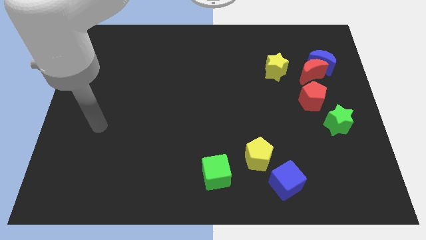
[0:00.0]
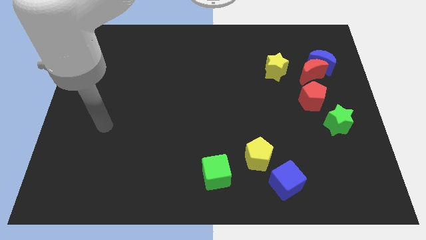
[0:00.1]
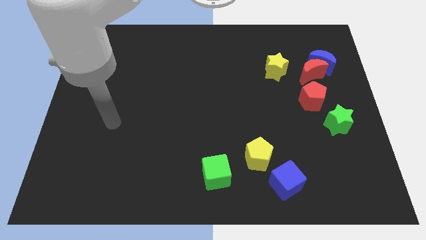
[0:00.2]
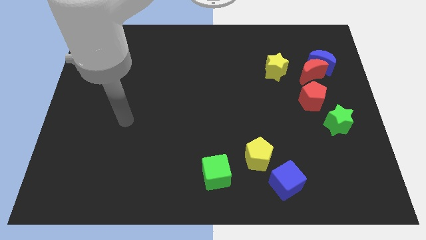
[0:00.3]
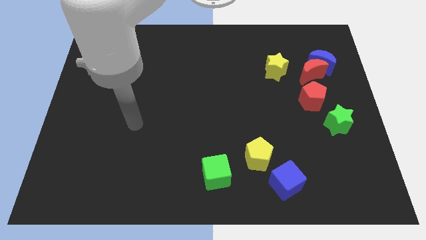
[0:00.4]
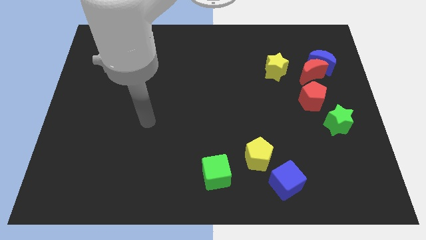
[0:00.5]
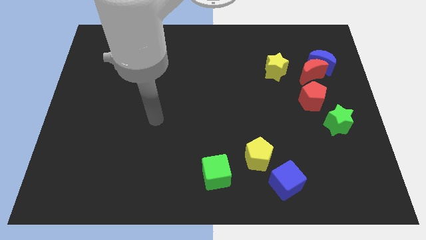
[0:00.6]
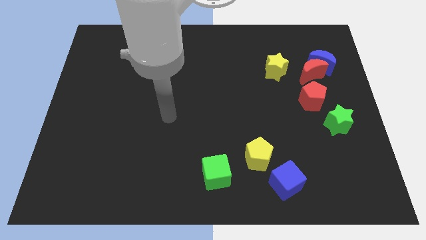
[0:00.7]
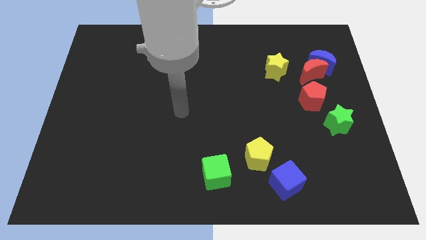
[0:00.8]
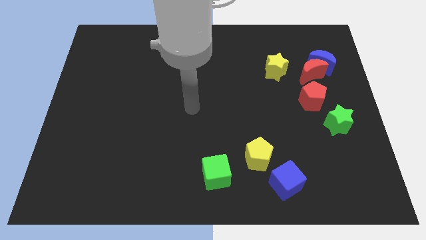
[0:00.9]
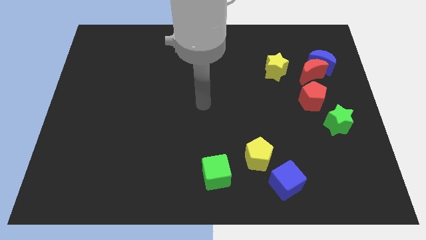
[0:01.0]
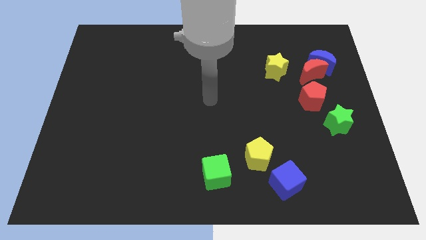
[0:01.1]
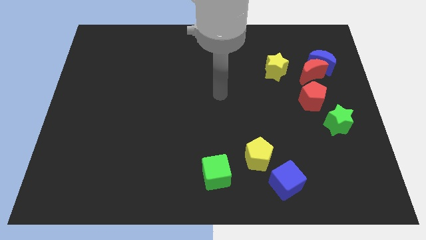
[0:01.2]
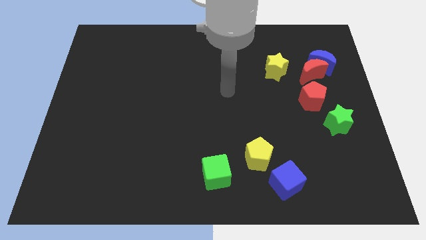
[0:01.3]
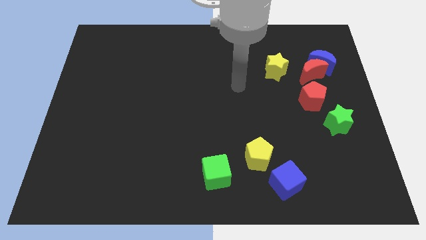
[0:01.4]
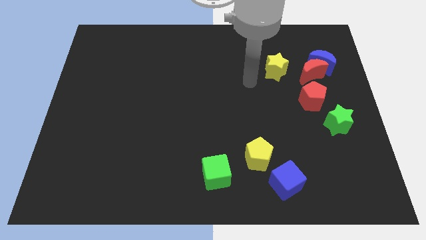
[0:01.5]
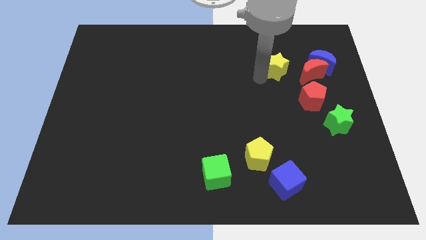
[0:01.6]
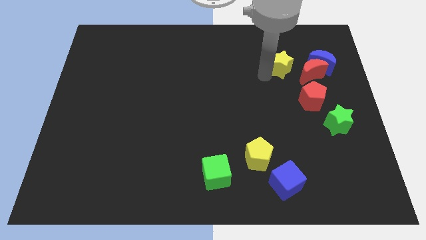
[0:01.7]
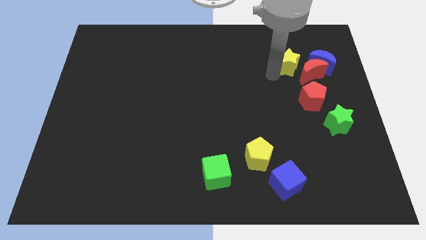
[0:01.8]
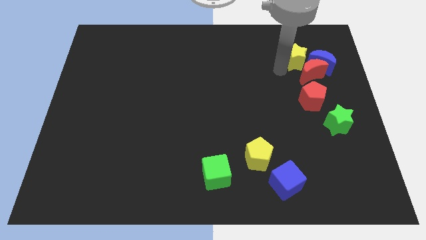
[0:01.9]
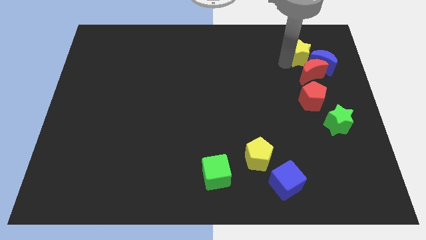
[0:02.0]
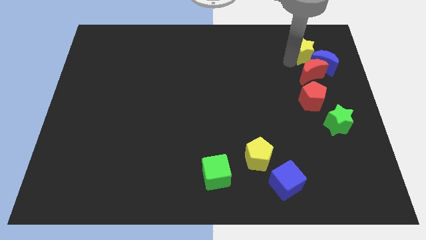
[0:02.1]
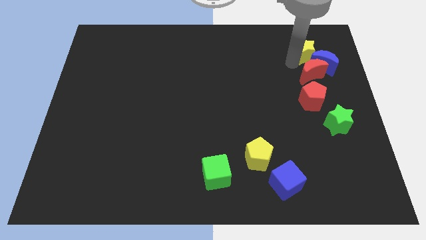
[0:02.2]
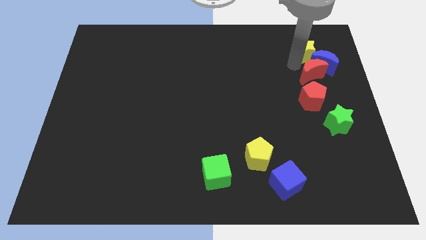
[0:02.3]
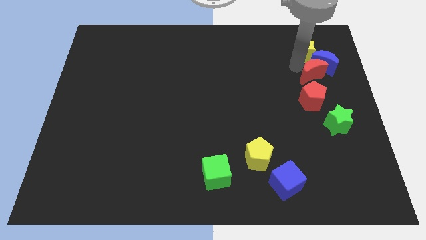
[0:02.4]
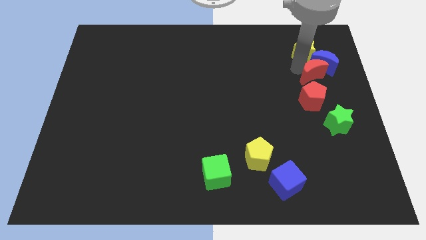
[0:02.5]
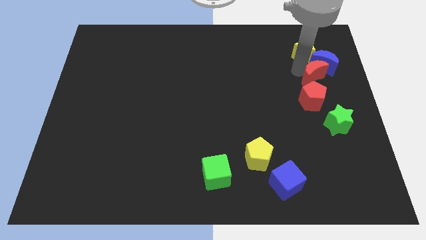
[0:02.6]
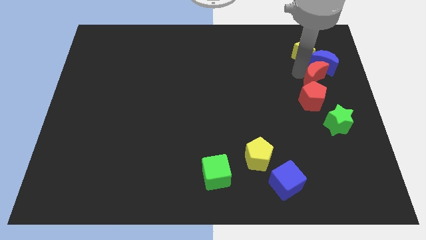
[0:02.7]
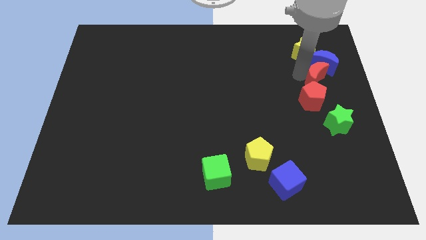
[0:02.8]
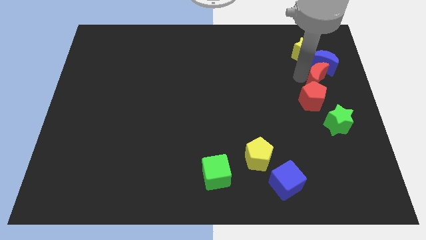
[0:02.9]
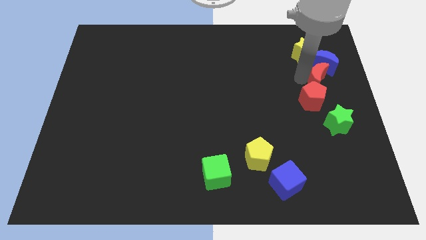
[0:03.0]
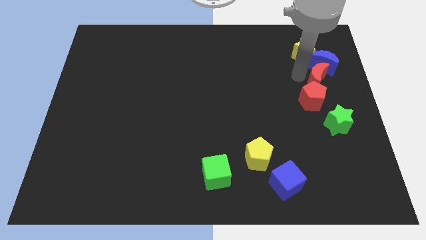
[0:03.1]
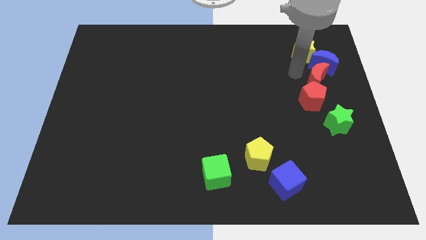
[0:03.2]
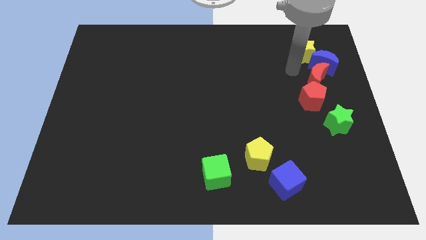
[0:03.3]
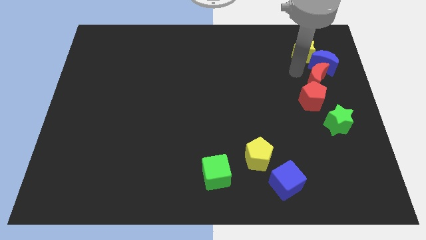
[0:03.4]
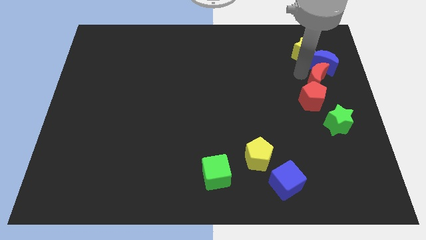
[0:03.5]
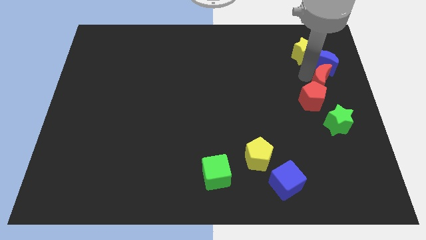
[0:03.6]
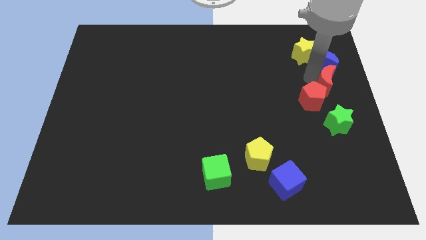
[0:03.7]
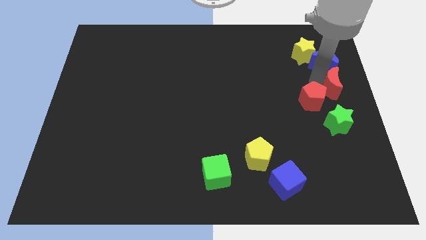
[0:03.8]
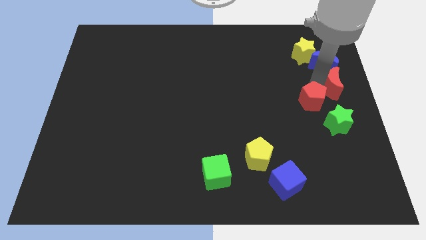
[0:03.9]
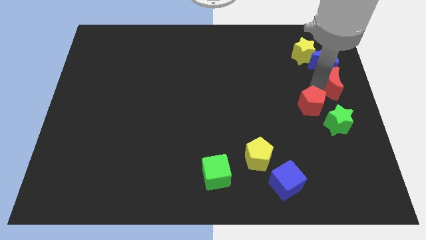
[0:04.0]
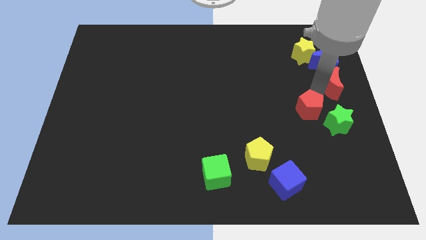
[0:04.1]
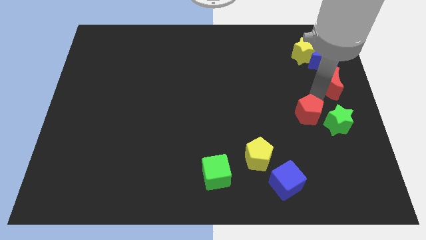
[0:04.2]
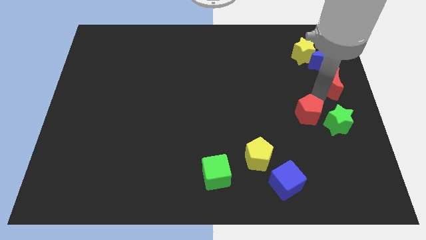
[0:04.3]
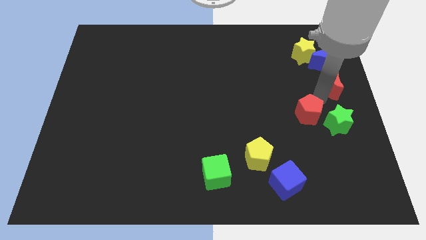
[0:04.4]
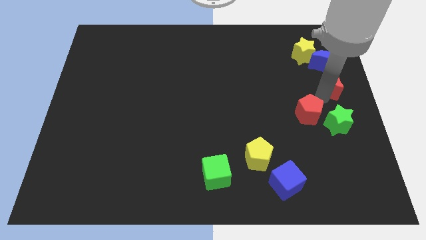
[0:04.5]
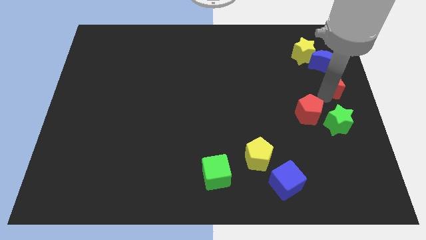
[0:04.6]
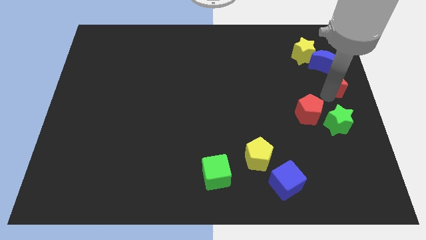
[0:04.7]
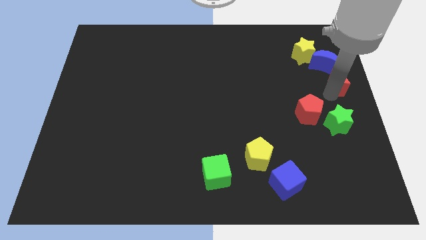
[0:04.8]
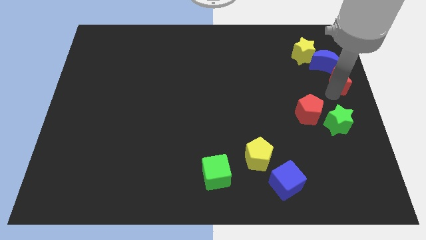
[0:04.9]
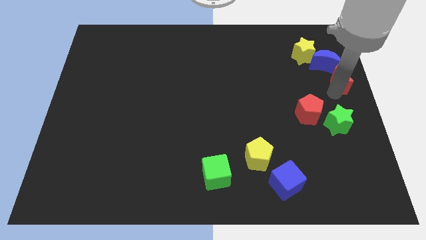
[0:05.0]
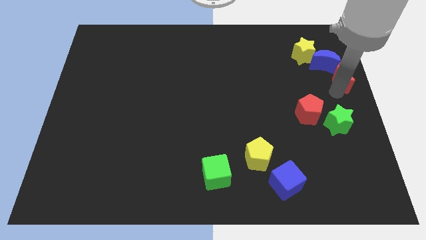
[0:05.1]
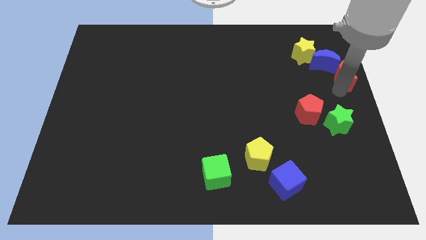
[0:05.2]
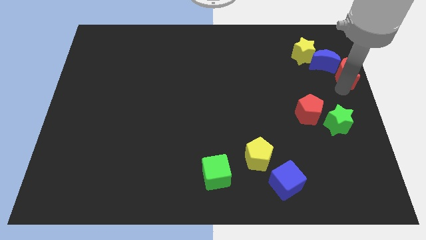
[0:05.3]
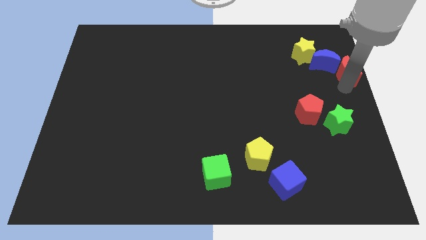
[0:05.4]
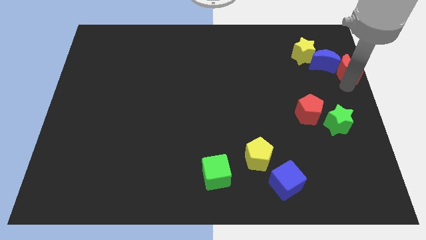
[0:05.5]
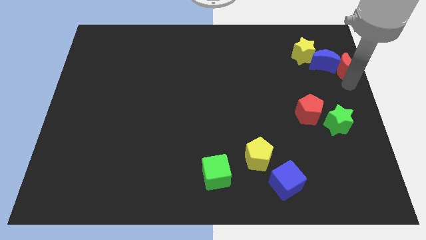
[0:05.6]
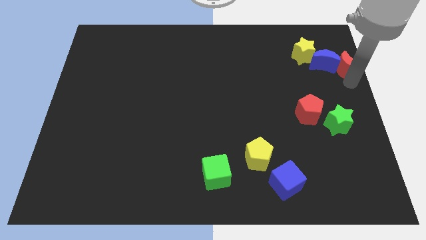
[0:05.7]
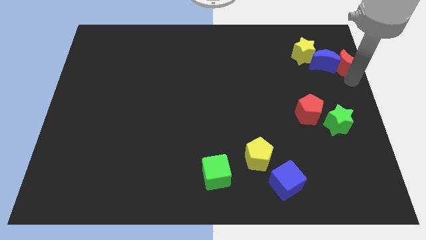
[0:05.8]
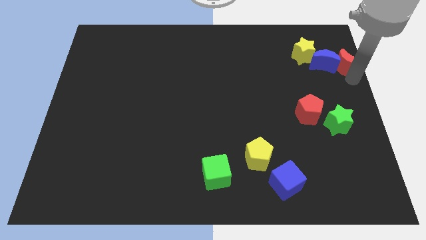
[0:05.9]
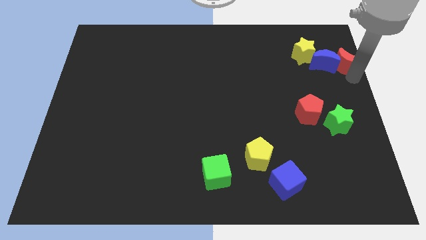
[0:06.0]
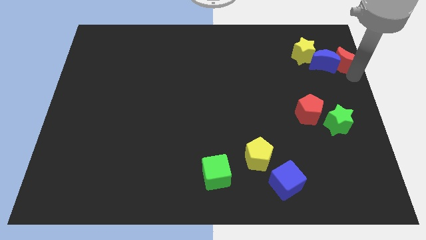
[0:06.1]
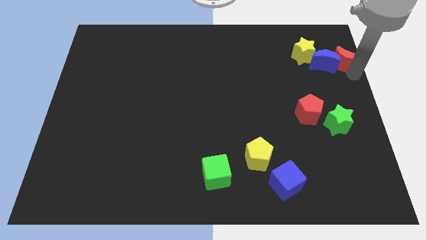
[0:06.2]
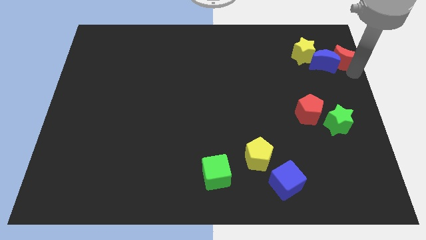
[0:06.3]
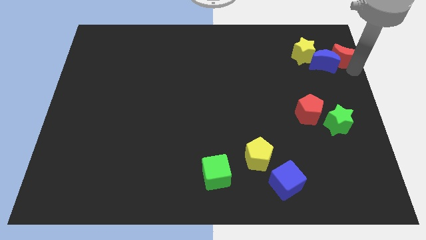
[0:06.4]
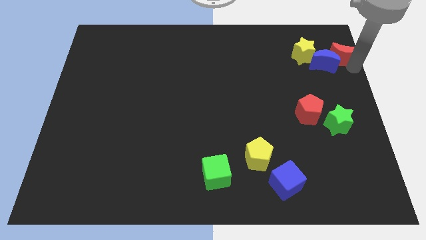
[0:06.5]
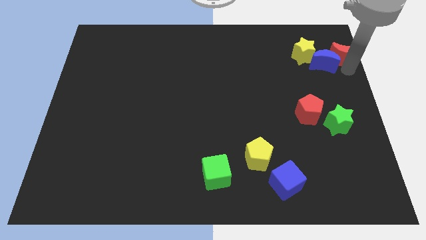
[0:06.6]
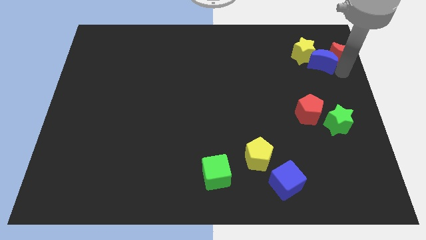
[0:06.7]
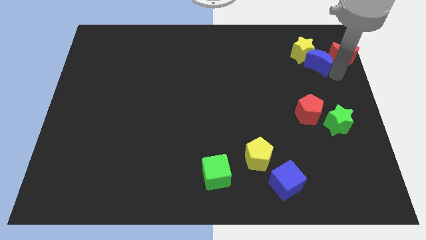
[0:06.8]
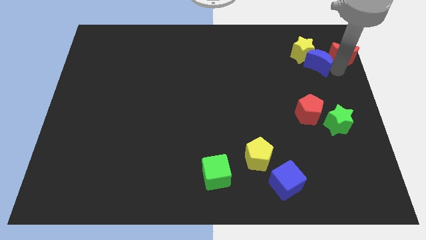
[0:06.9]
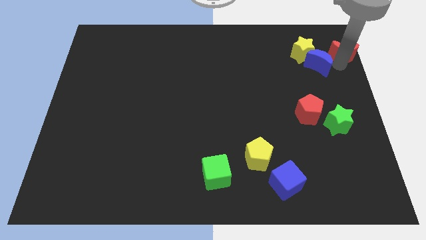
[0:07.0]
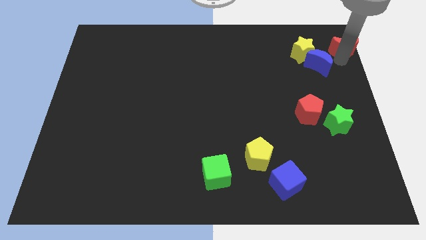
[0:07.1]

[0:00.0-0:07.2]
put the red moon to the top right corner
